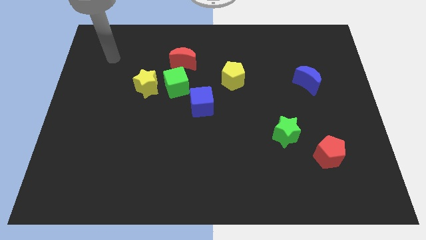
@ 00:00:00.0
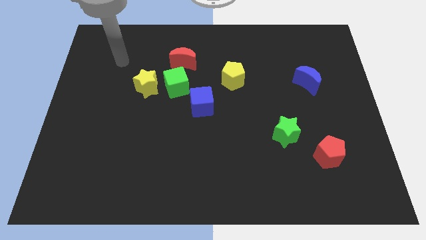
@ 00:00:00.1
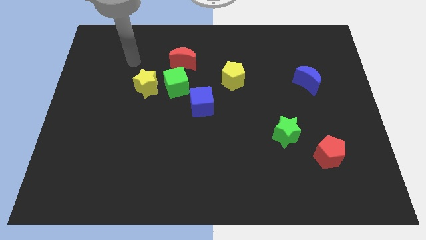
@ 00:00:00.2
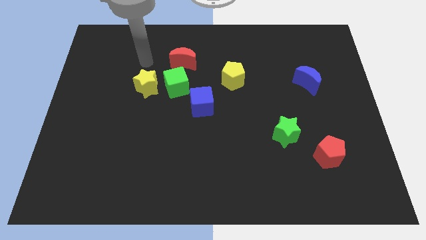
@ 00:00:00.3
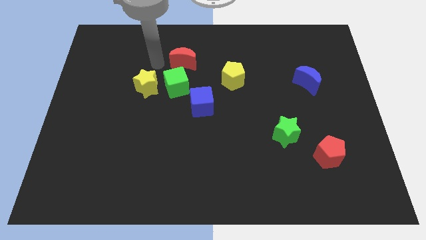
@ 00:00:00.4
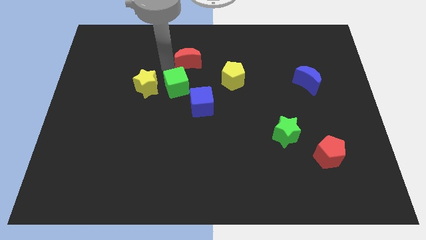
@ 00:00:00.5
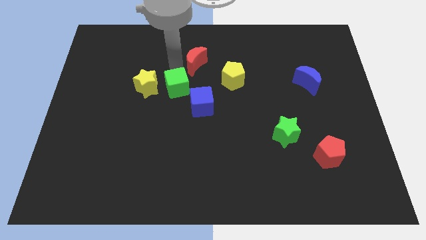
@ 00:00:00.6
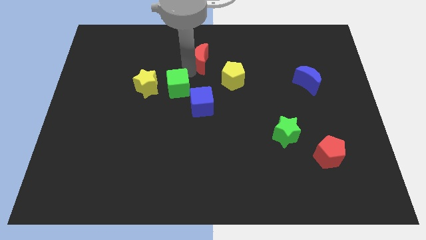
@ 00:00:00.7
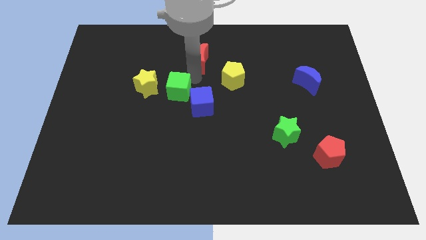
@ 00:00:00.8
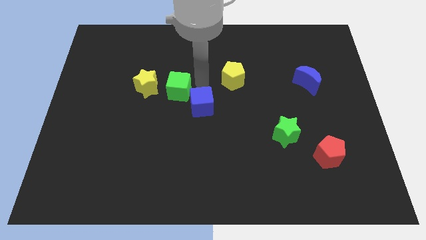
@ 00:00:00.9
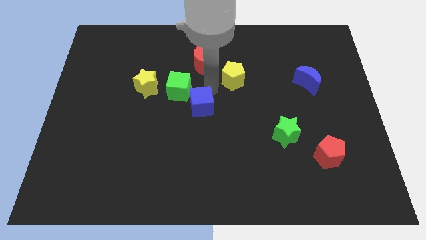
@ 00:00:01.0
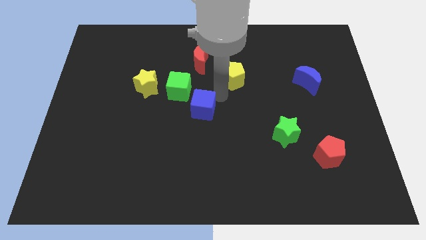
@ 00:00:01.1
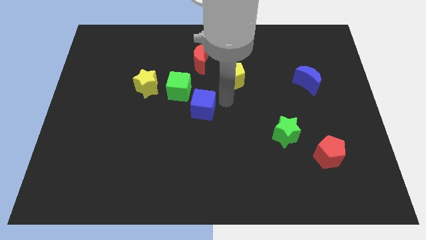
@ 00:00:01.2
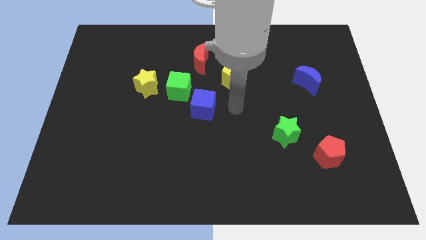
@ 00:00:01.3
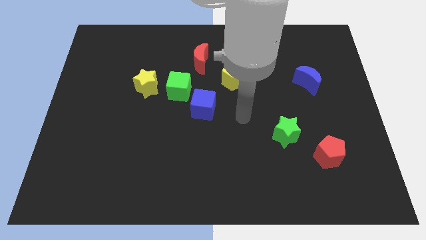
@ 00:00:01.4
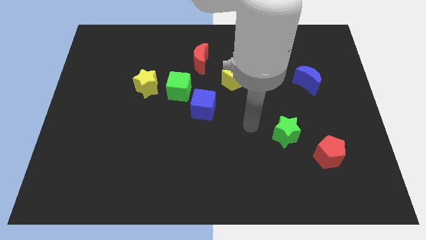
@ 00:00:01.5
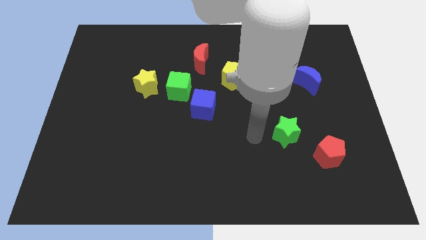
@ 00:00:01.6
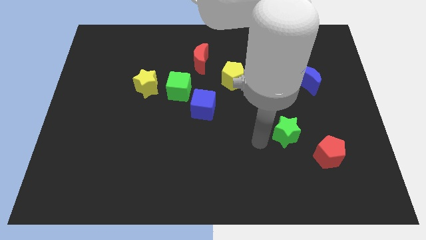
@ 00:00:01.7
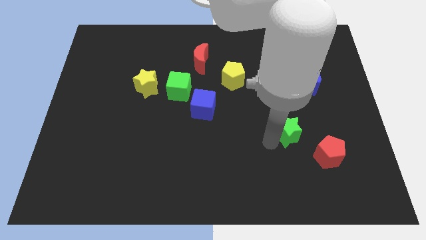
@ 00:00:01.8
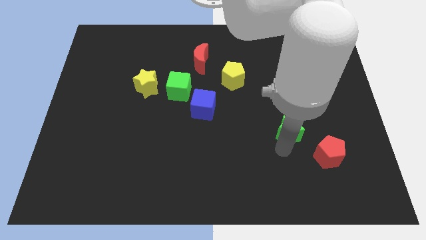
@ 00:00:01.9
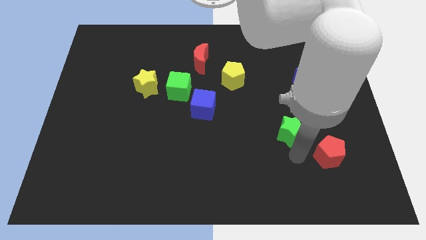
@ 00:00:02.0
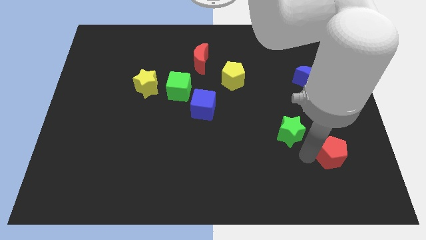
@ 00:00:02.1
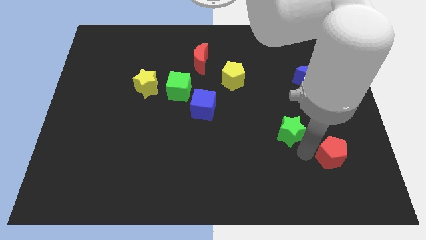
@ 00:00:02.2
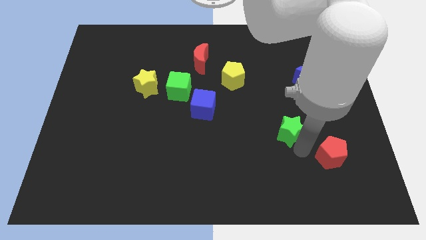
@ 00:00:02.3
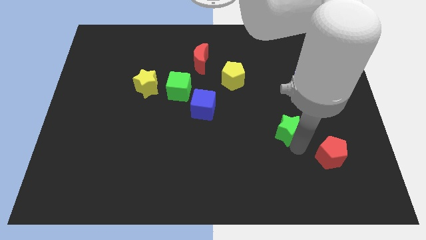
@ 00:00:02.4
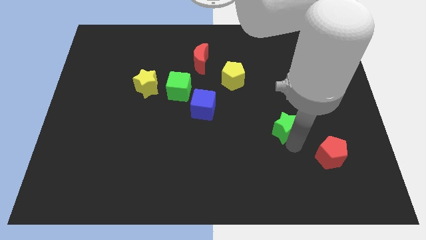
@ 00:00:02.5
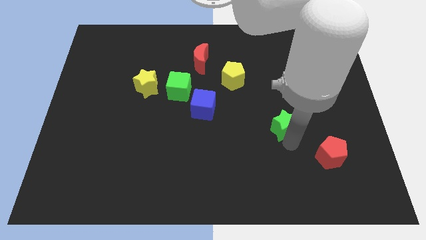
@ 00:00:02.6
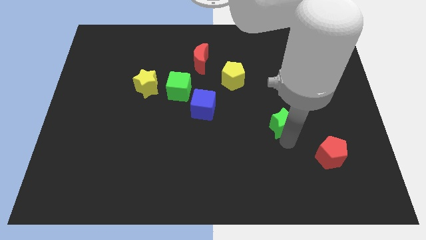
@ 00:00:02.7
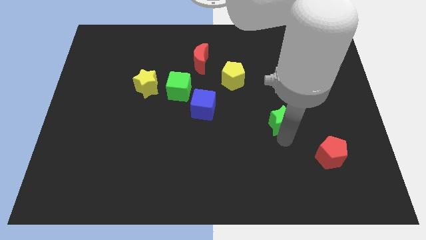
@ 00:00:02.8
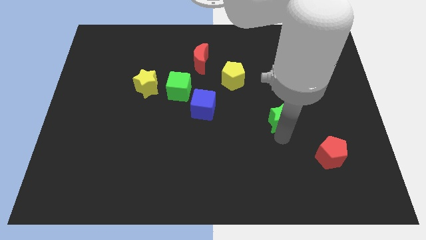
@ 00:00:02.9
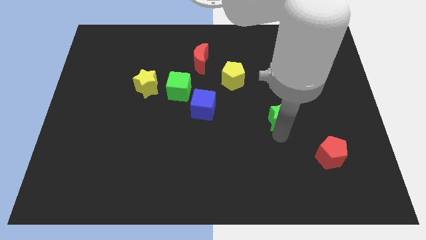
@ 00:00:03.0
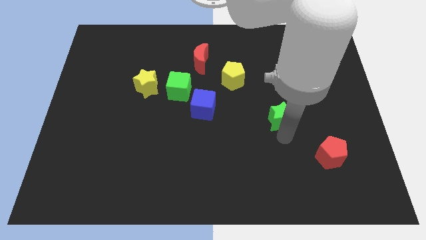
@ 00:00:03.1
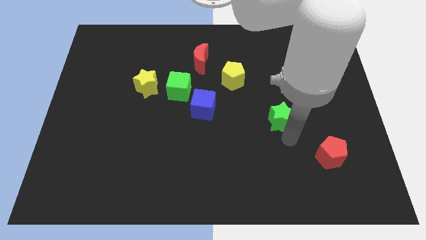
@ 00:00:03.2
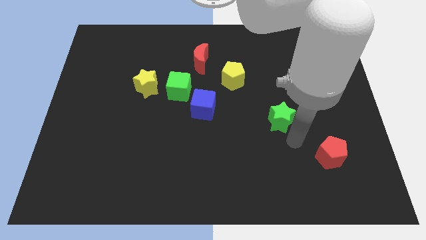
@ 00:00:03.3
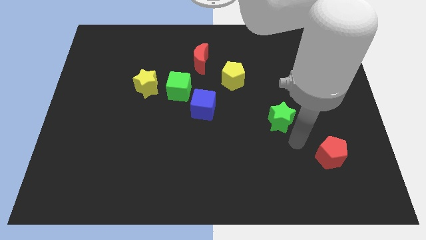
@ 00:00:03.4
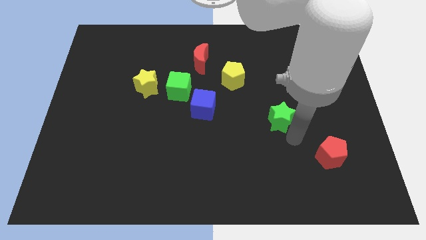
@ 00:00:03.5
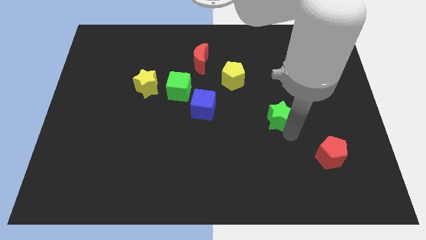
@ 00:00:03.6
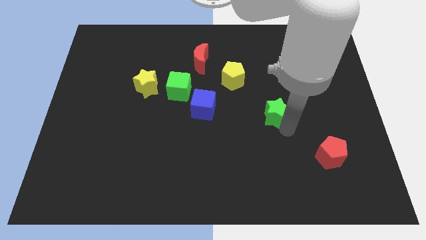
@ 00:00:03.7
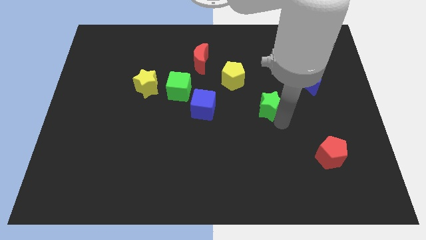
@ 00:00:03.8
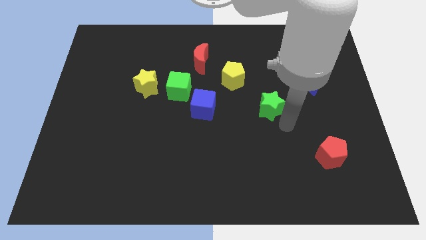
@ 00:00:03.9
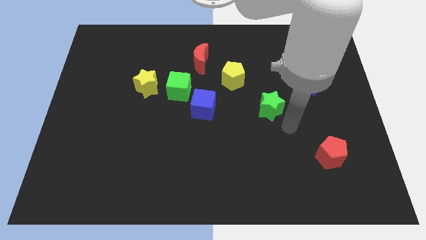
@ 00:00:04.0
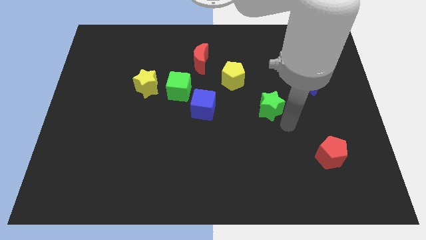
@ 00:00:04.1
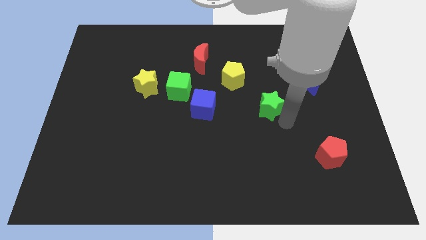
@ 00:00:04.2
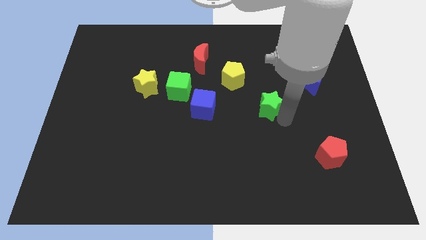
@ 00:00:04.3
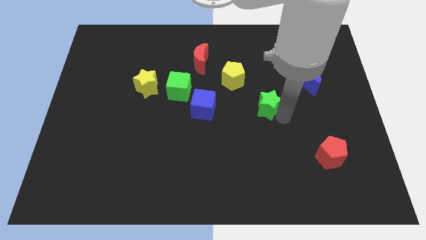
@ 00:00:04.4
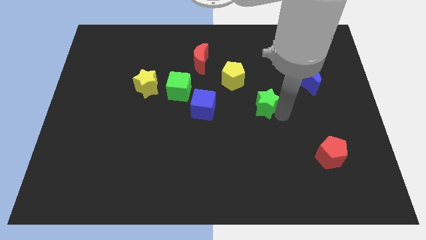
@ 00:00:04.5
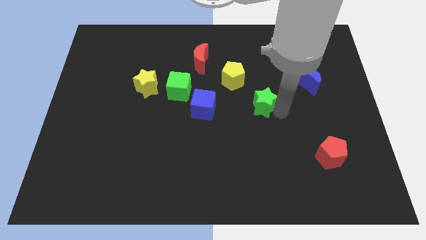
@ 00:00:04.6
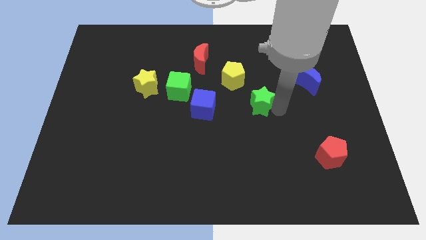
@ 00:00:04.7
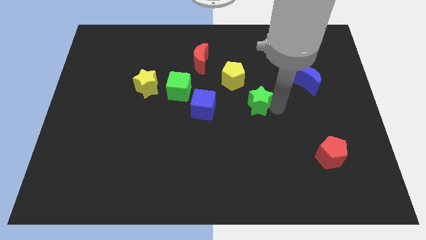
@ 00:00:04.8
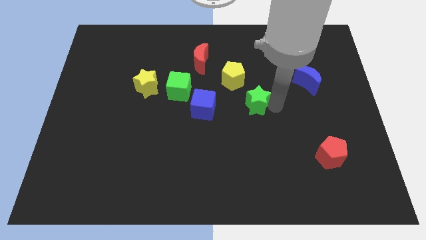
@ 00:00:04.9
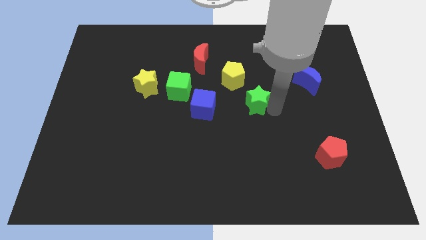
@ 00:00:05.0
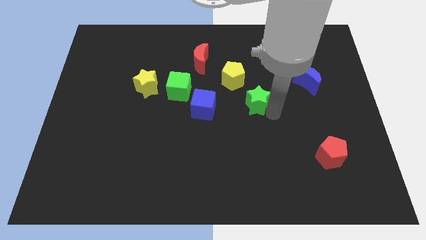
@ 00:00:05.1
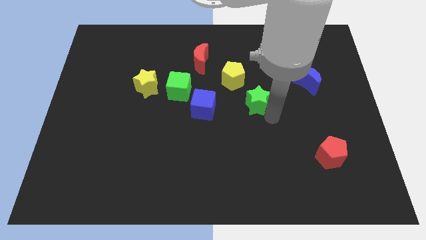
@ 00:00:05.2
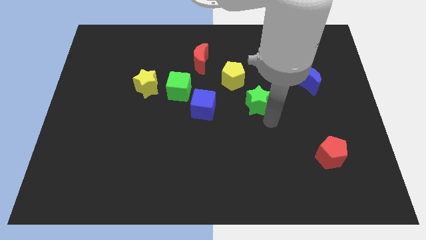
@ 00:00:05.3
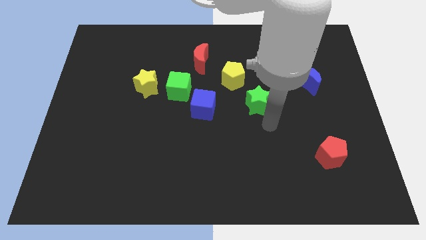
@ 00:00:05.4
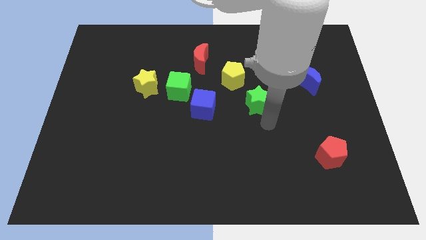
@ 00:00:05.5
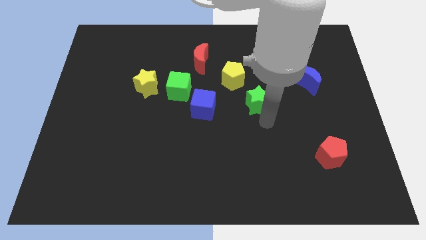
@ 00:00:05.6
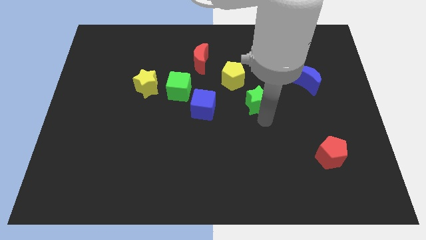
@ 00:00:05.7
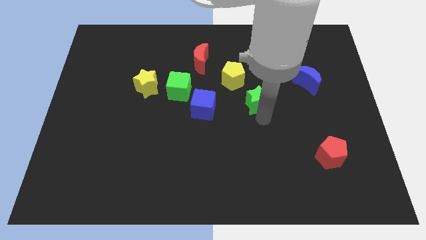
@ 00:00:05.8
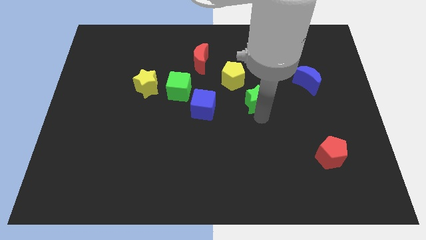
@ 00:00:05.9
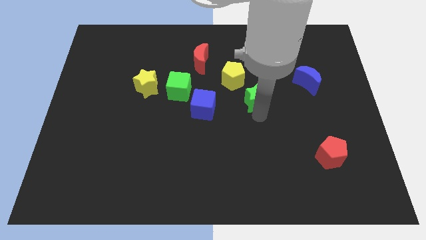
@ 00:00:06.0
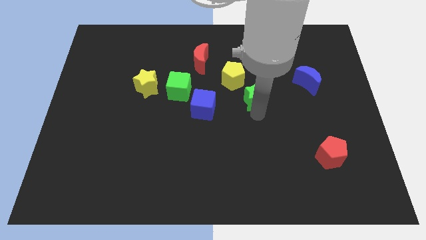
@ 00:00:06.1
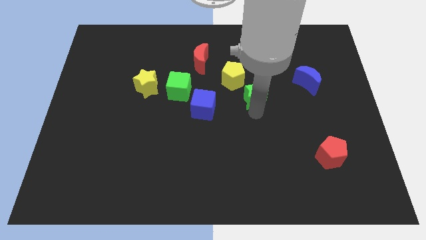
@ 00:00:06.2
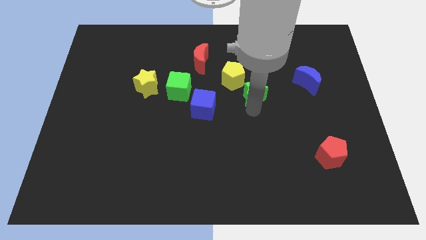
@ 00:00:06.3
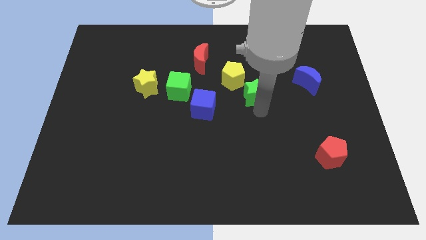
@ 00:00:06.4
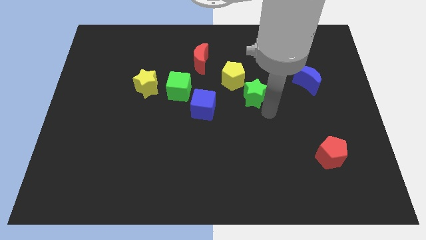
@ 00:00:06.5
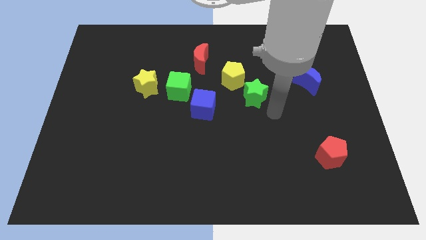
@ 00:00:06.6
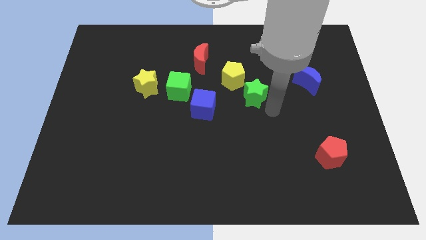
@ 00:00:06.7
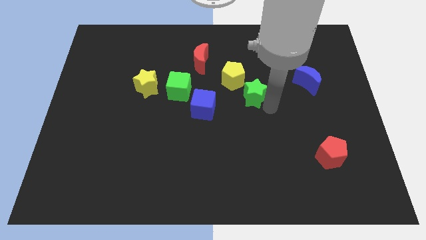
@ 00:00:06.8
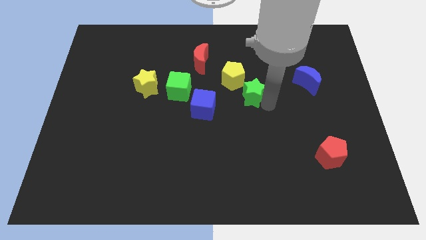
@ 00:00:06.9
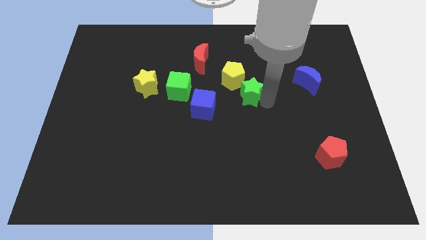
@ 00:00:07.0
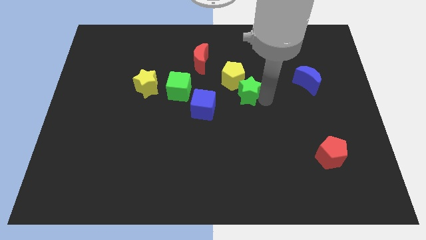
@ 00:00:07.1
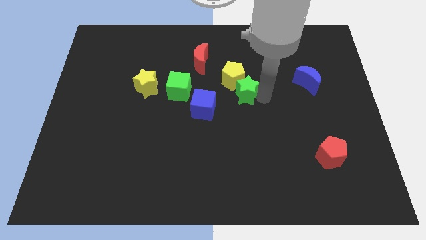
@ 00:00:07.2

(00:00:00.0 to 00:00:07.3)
push the green star next to the yellow pentagon

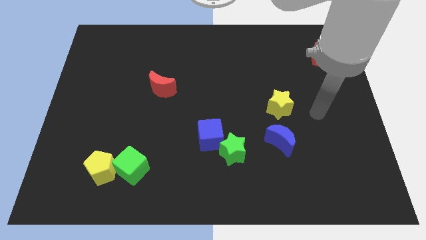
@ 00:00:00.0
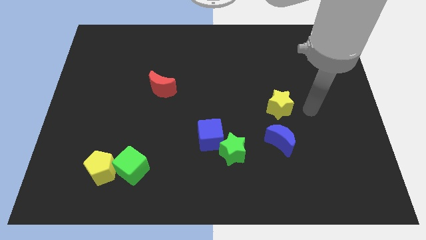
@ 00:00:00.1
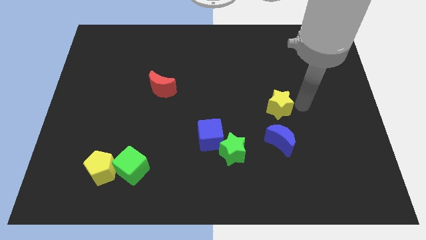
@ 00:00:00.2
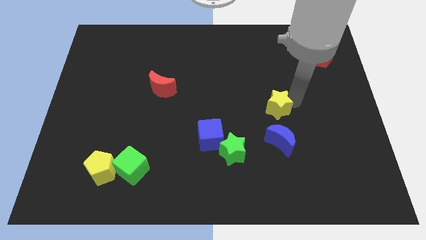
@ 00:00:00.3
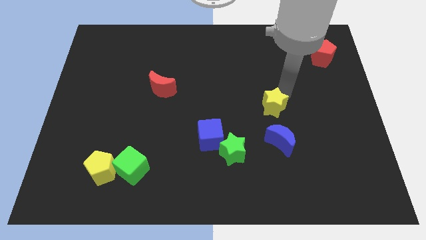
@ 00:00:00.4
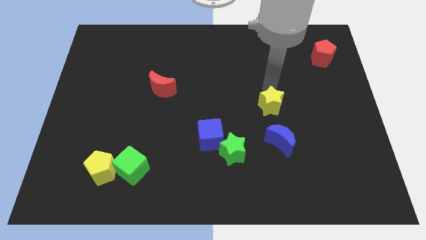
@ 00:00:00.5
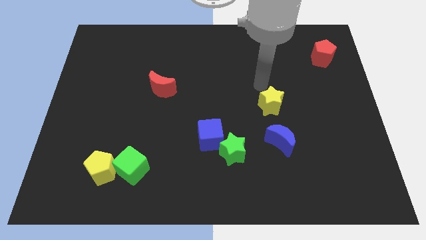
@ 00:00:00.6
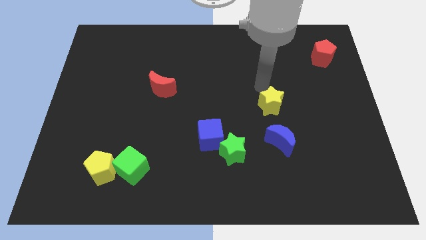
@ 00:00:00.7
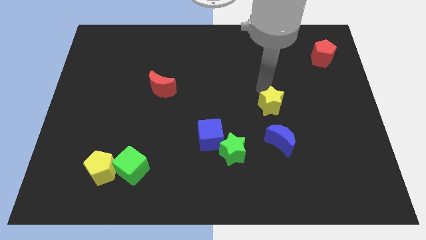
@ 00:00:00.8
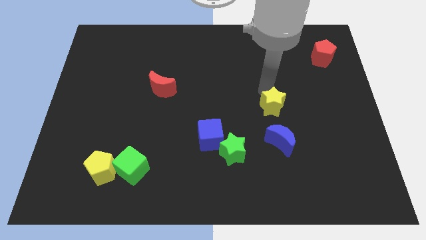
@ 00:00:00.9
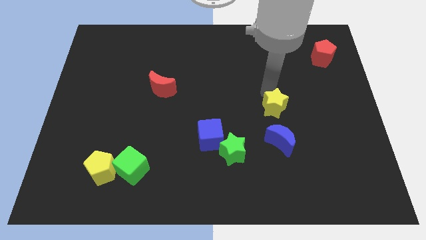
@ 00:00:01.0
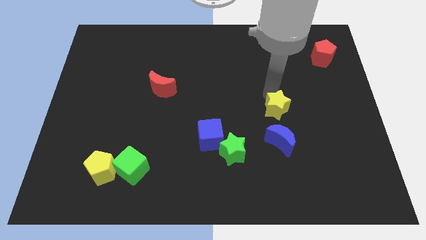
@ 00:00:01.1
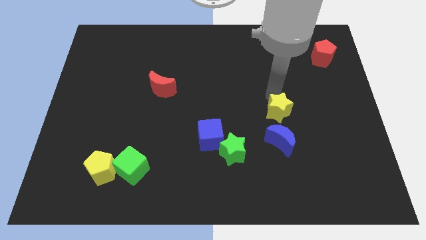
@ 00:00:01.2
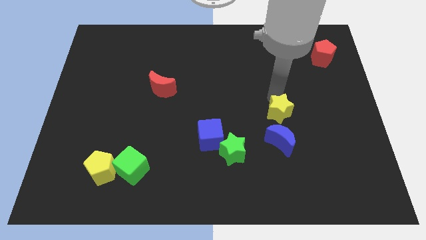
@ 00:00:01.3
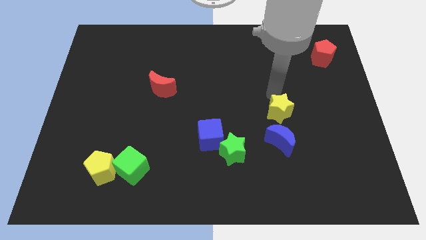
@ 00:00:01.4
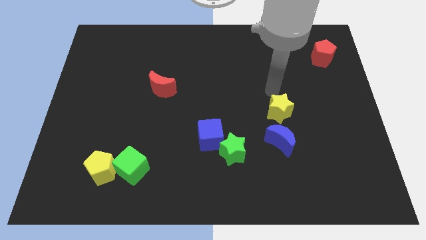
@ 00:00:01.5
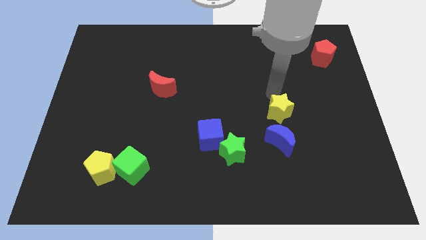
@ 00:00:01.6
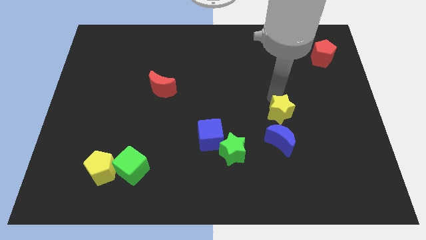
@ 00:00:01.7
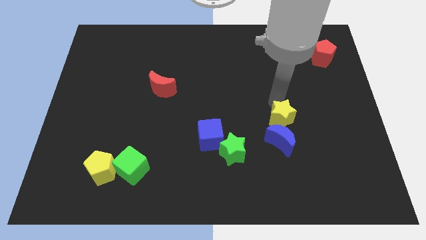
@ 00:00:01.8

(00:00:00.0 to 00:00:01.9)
move the yellow star close to the blue moon
